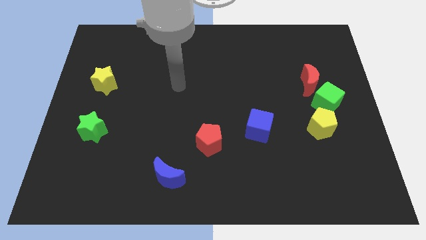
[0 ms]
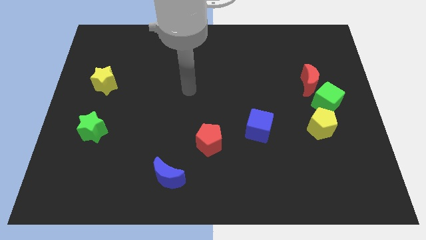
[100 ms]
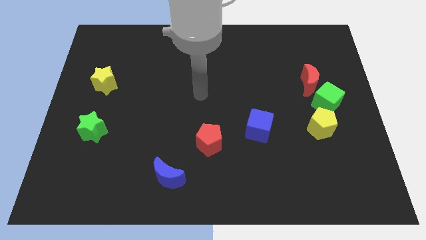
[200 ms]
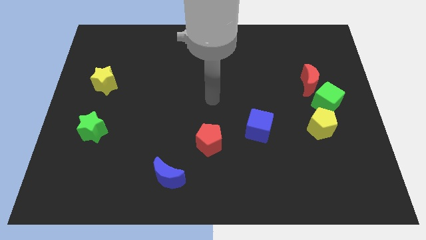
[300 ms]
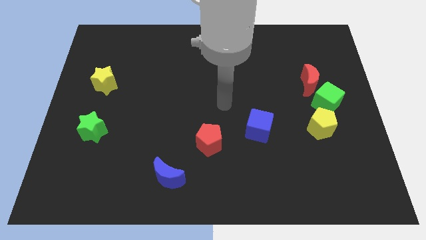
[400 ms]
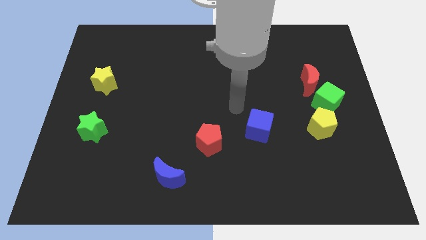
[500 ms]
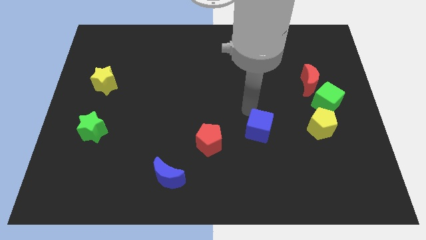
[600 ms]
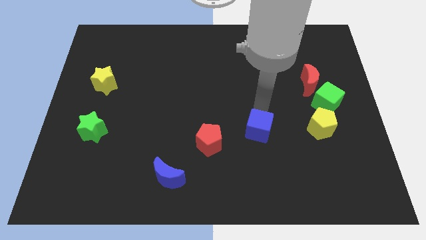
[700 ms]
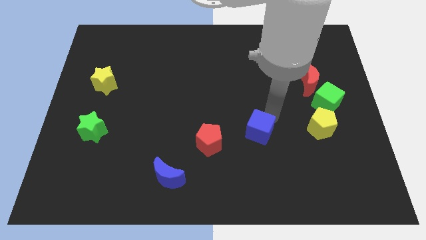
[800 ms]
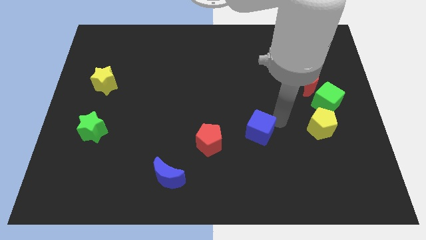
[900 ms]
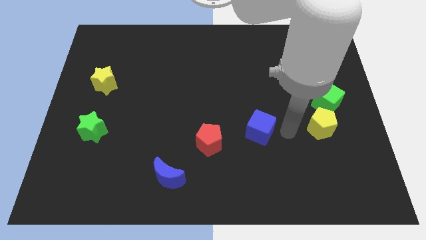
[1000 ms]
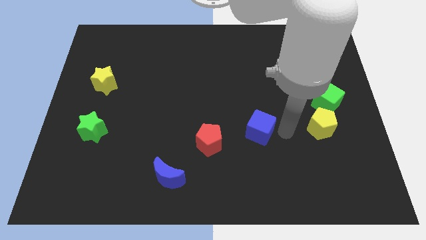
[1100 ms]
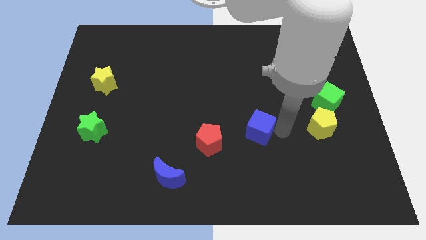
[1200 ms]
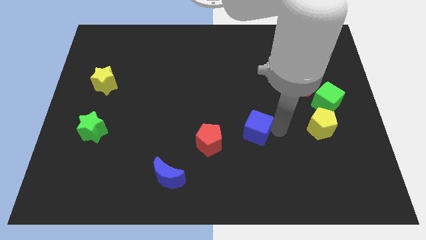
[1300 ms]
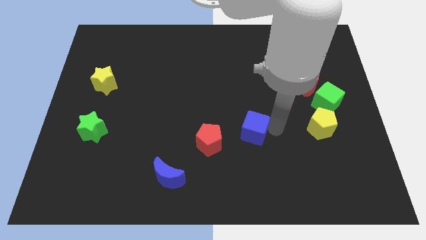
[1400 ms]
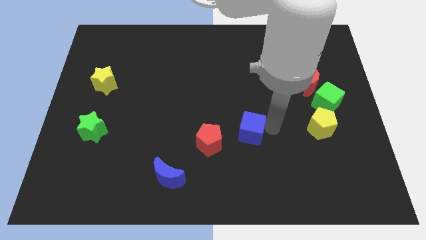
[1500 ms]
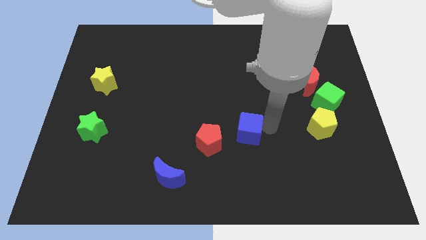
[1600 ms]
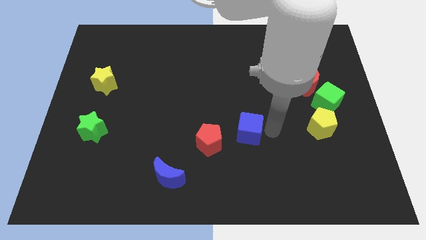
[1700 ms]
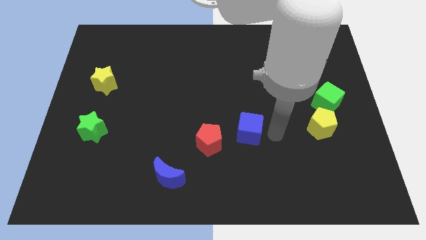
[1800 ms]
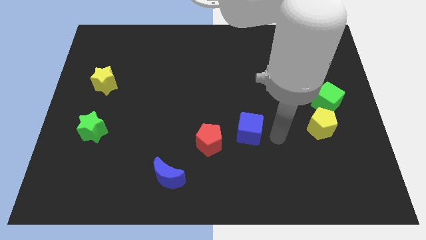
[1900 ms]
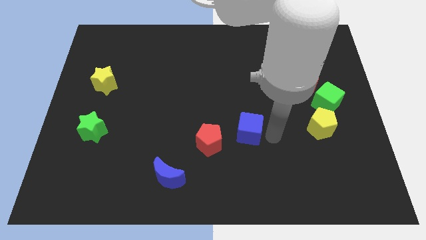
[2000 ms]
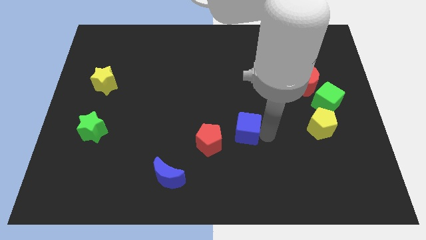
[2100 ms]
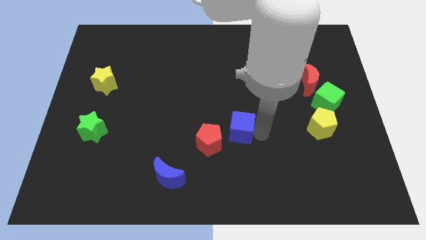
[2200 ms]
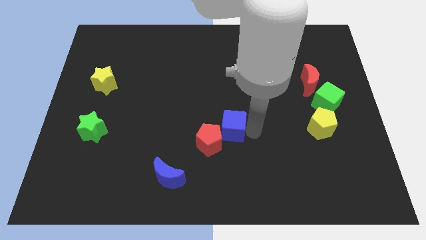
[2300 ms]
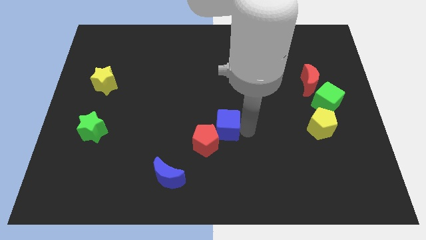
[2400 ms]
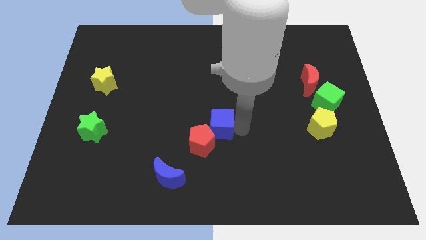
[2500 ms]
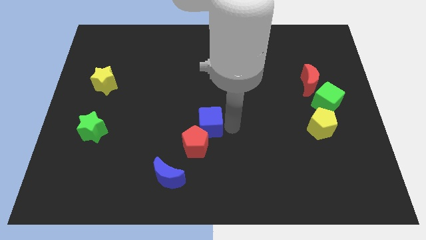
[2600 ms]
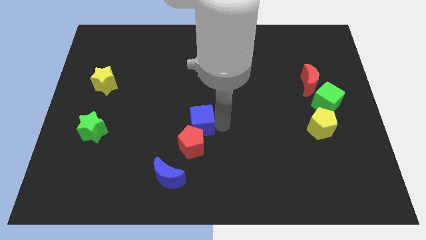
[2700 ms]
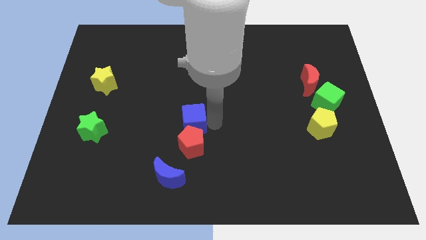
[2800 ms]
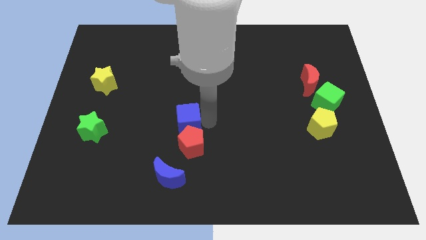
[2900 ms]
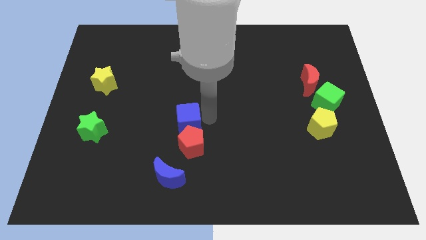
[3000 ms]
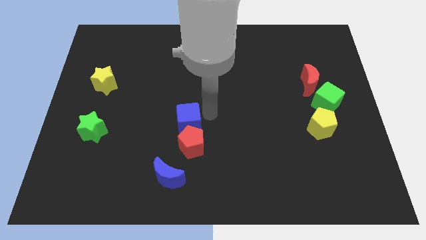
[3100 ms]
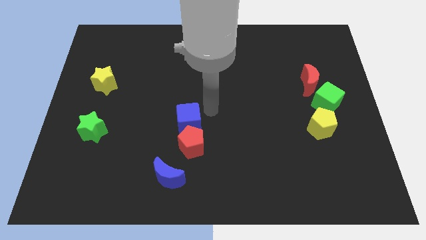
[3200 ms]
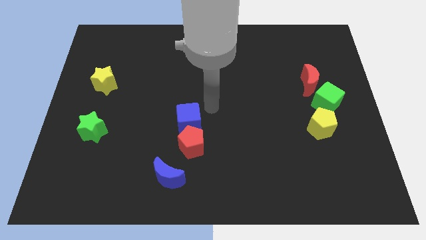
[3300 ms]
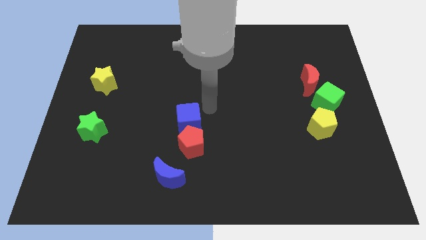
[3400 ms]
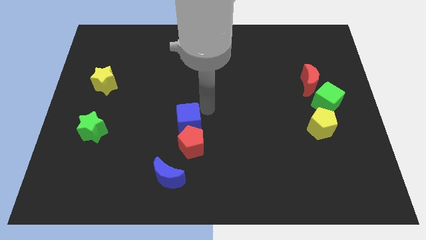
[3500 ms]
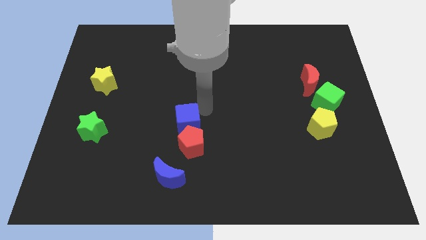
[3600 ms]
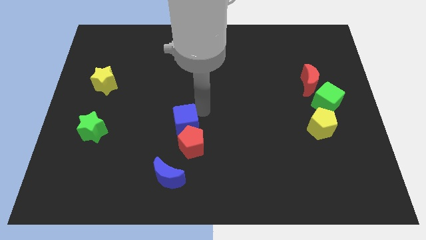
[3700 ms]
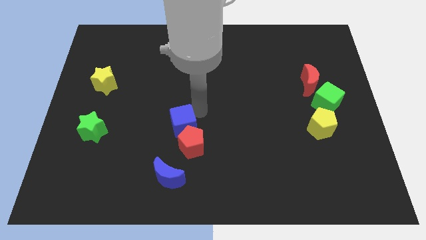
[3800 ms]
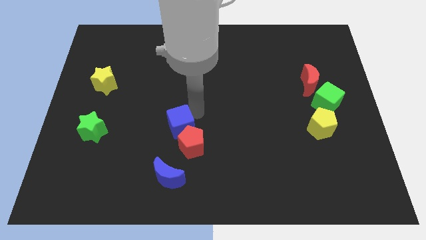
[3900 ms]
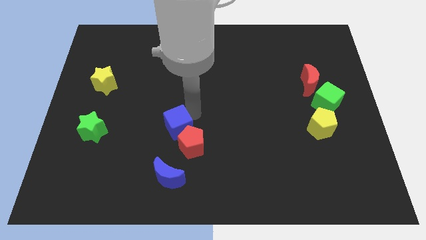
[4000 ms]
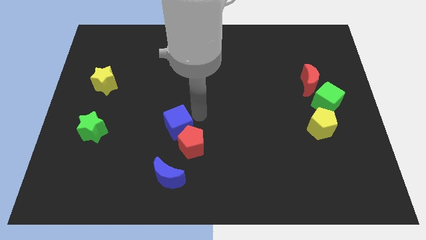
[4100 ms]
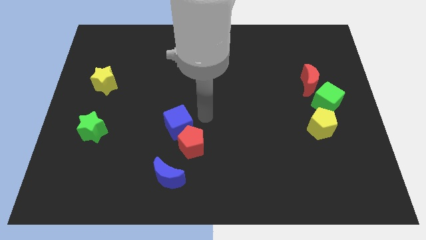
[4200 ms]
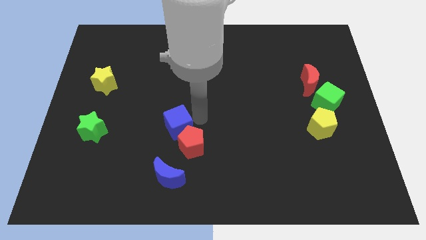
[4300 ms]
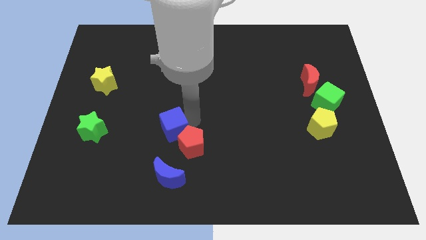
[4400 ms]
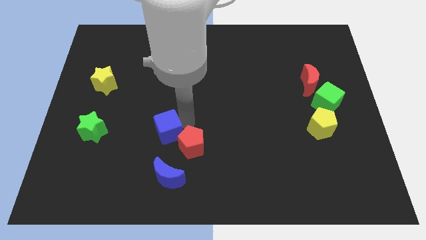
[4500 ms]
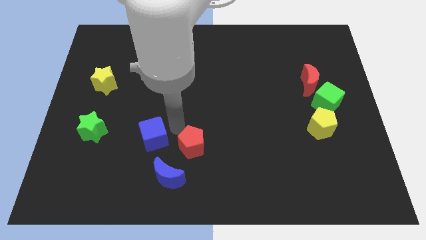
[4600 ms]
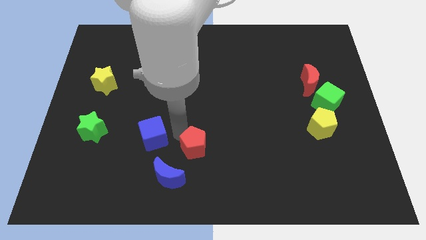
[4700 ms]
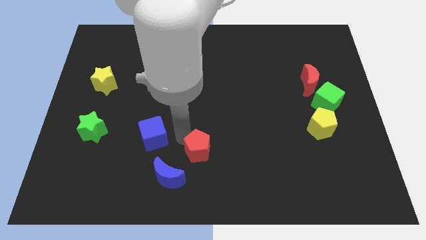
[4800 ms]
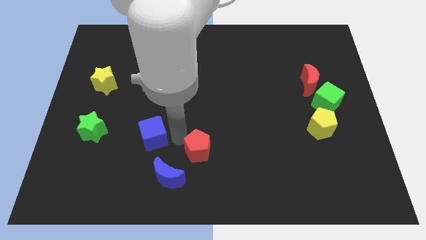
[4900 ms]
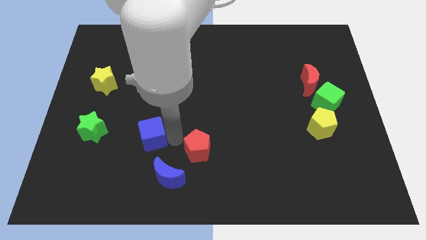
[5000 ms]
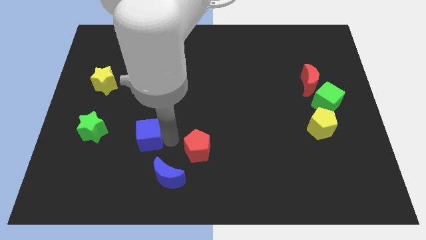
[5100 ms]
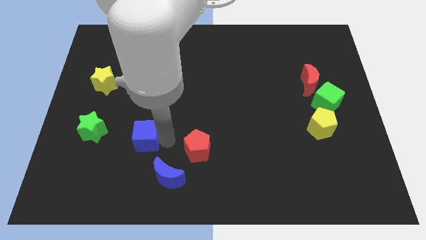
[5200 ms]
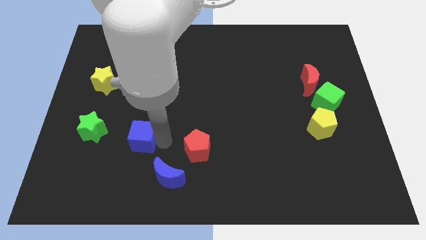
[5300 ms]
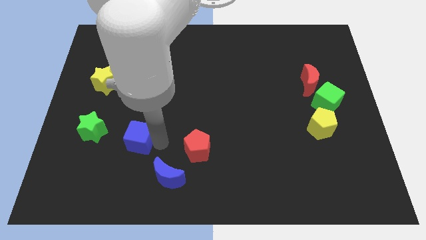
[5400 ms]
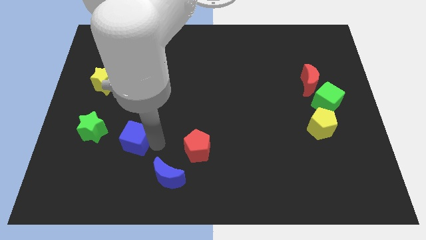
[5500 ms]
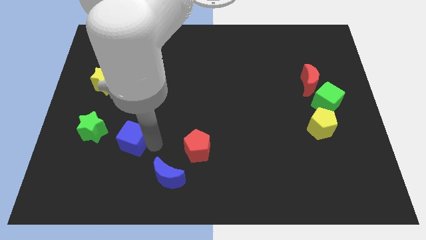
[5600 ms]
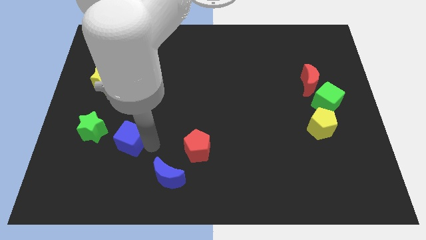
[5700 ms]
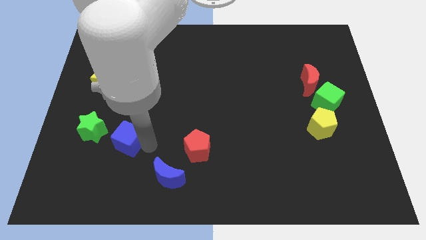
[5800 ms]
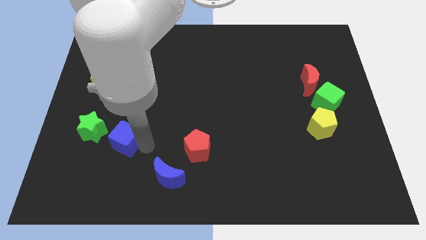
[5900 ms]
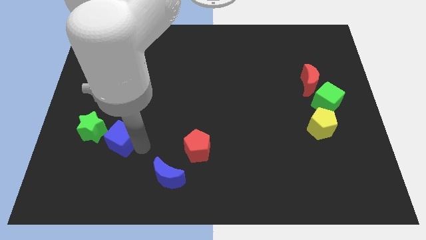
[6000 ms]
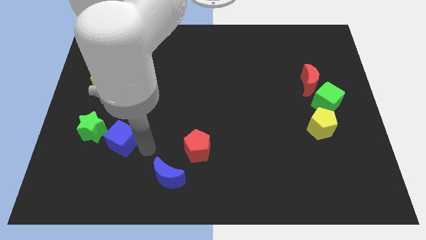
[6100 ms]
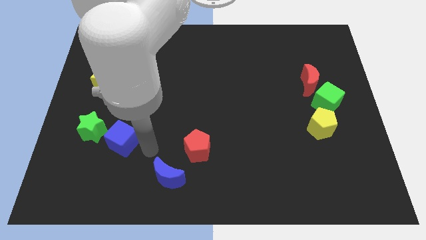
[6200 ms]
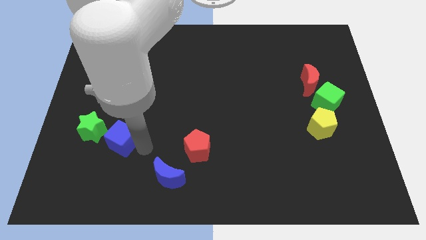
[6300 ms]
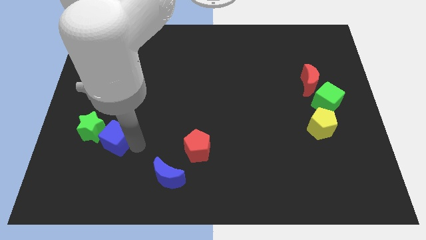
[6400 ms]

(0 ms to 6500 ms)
move the blue cube to the green star

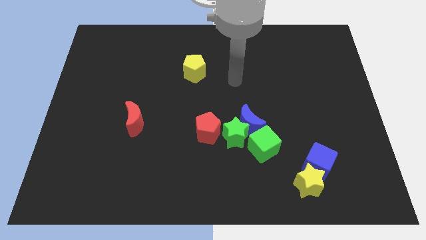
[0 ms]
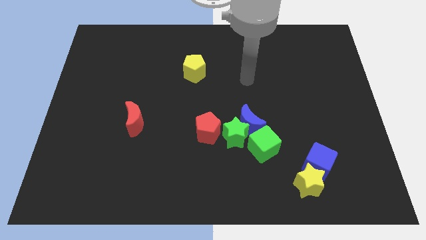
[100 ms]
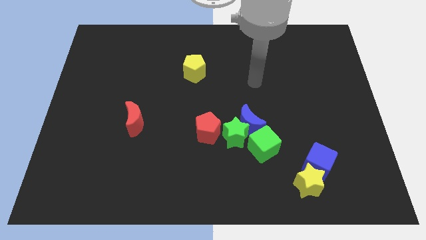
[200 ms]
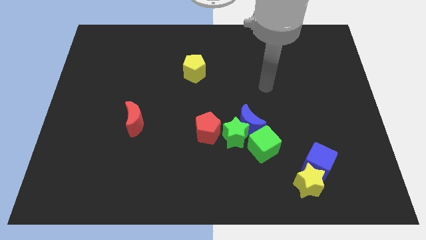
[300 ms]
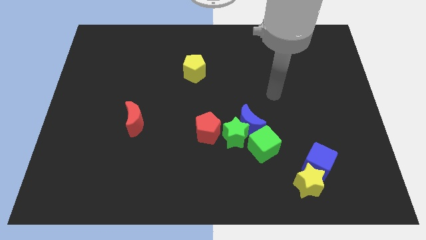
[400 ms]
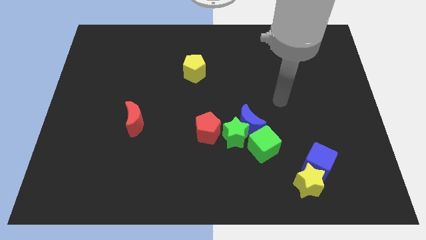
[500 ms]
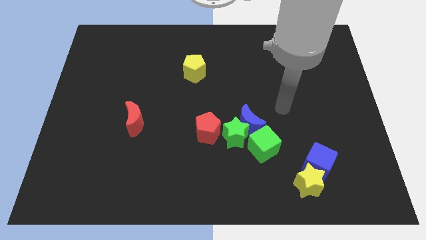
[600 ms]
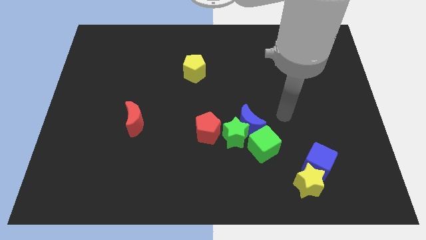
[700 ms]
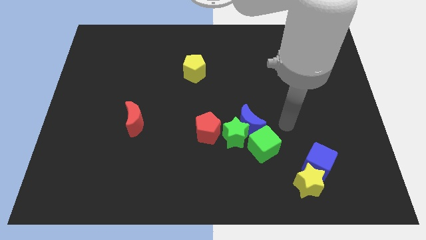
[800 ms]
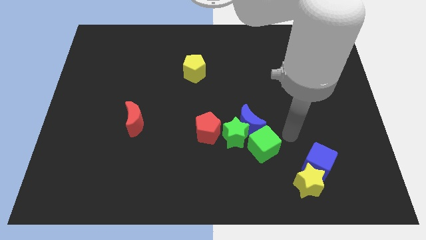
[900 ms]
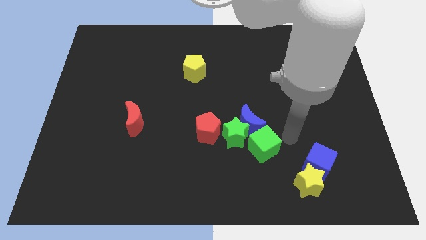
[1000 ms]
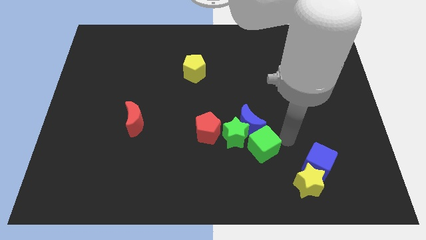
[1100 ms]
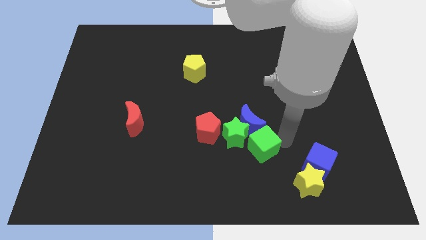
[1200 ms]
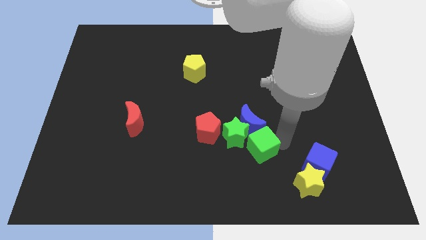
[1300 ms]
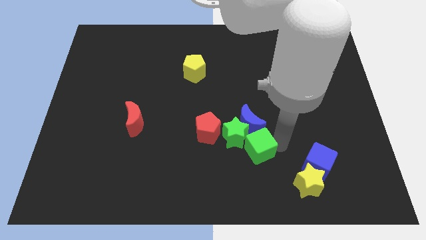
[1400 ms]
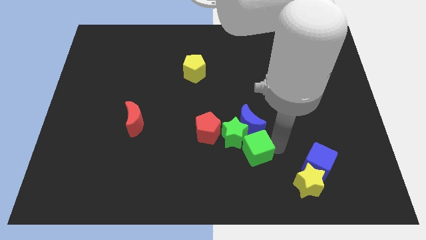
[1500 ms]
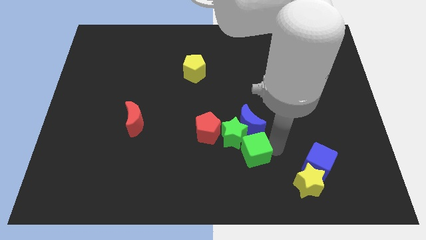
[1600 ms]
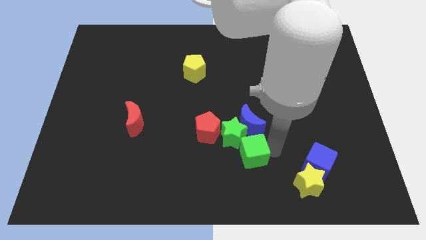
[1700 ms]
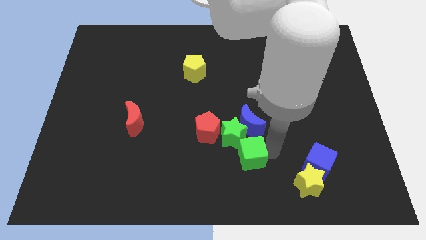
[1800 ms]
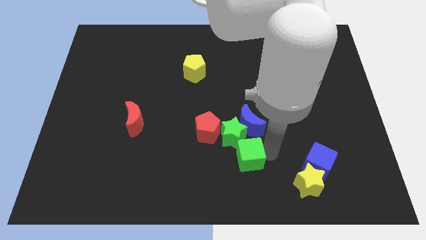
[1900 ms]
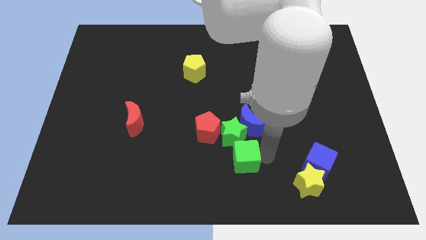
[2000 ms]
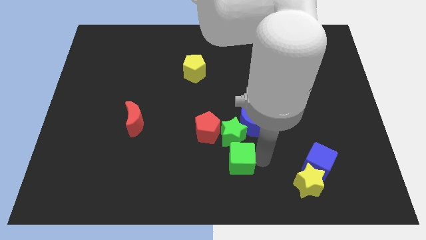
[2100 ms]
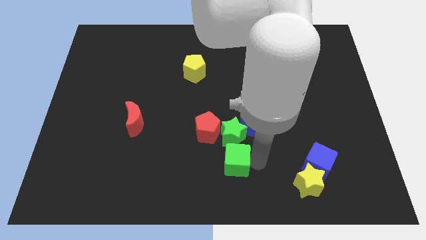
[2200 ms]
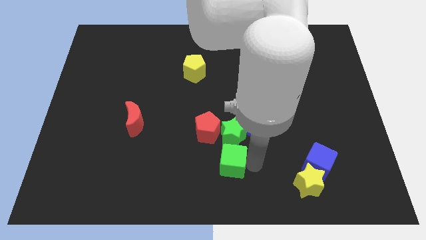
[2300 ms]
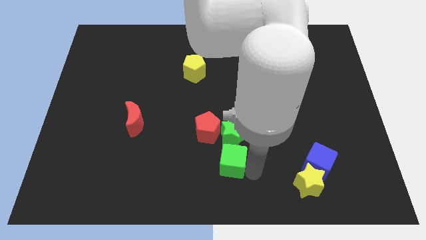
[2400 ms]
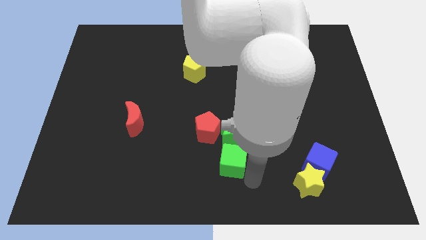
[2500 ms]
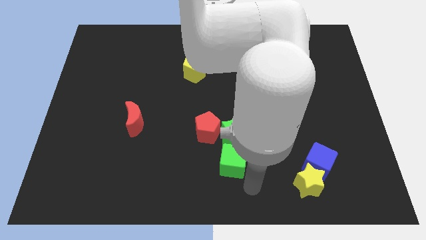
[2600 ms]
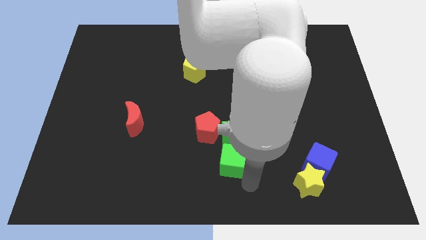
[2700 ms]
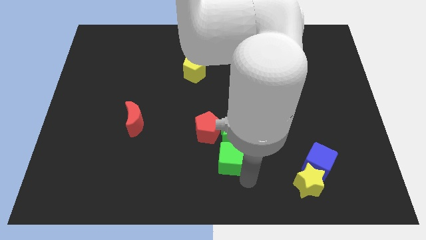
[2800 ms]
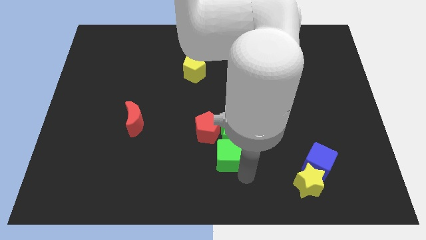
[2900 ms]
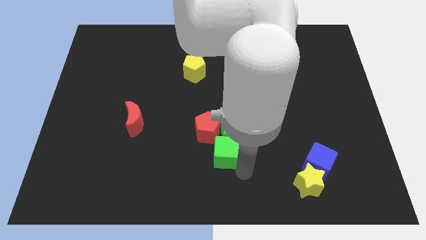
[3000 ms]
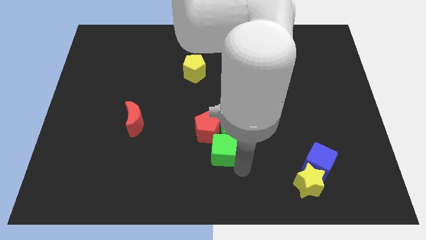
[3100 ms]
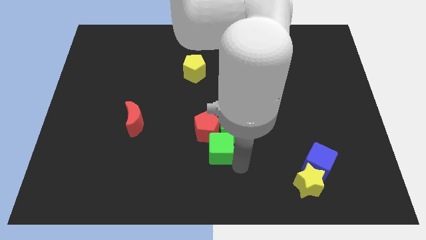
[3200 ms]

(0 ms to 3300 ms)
slide the green cube next to the red pentagon
